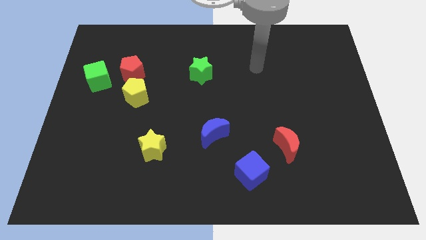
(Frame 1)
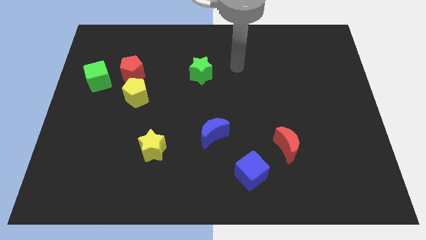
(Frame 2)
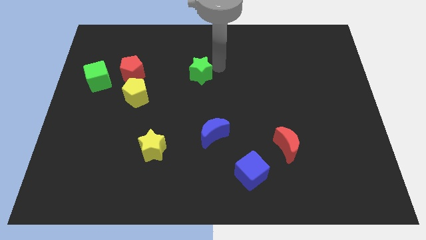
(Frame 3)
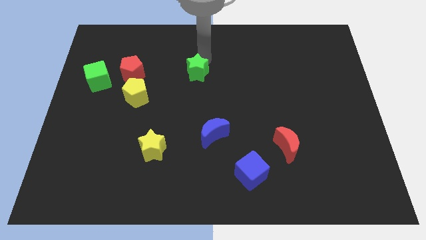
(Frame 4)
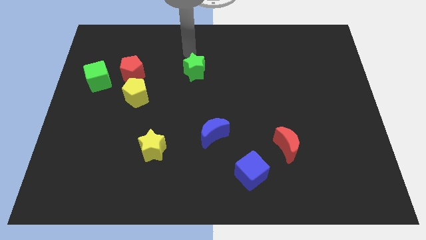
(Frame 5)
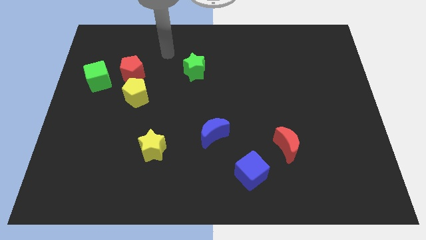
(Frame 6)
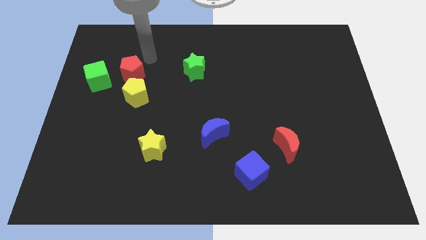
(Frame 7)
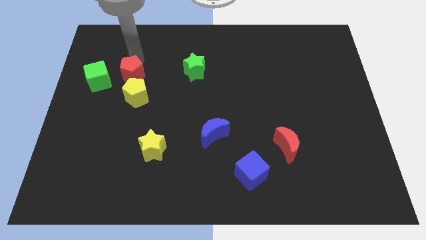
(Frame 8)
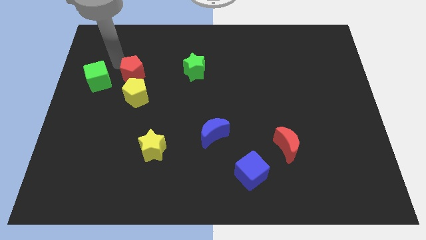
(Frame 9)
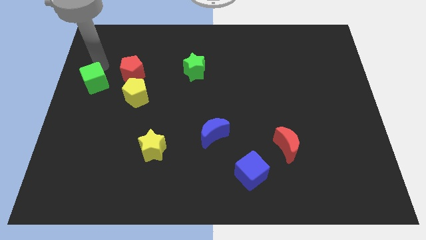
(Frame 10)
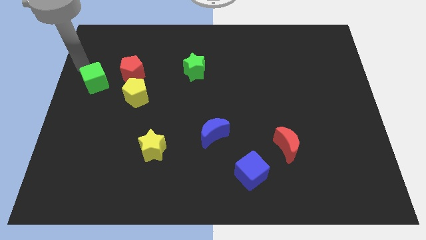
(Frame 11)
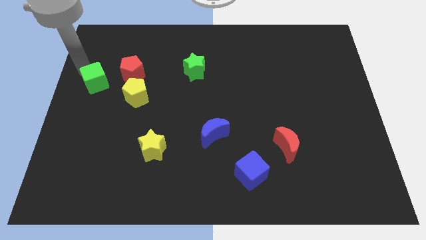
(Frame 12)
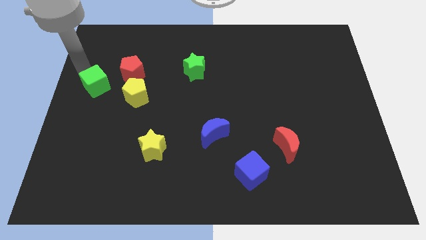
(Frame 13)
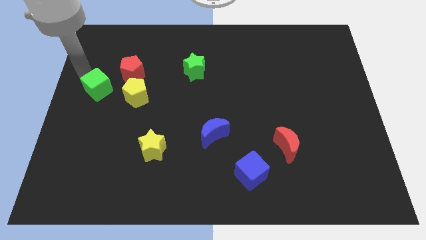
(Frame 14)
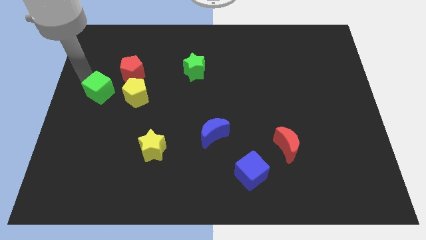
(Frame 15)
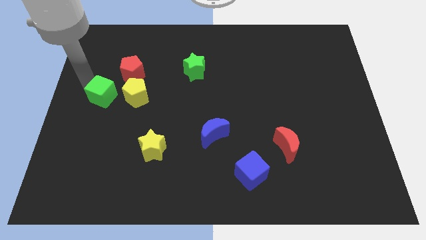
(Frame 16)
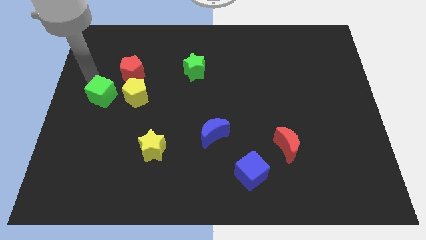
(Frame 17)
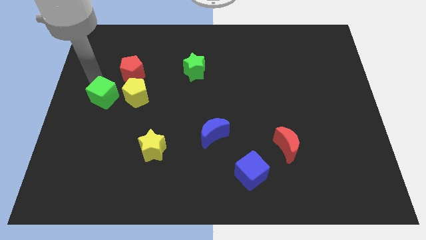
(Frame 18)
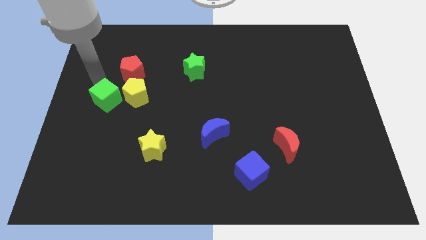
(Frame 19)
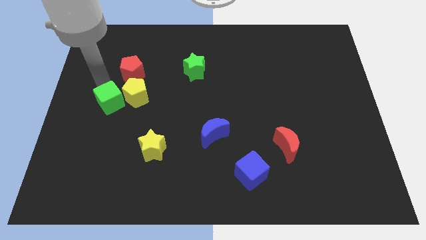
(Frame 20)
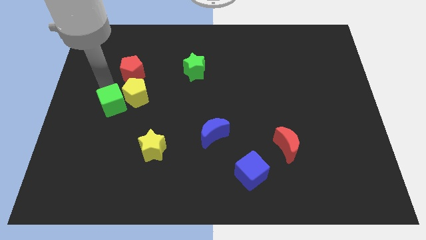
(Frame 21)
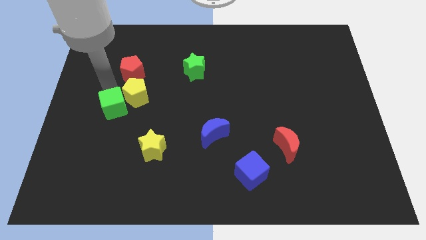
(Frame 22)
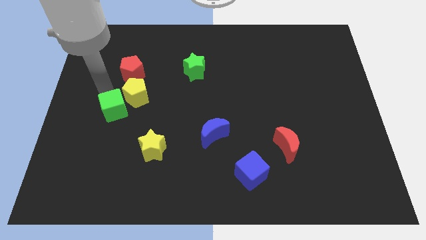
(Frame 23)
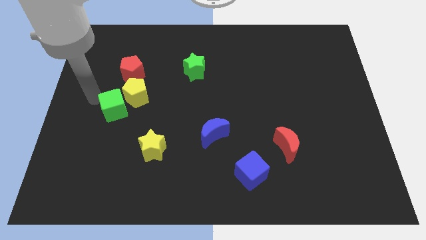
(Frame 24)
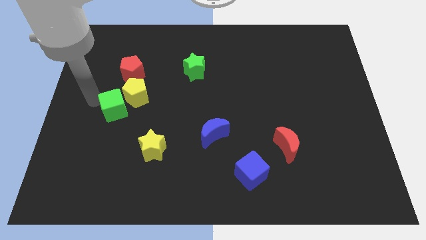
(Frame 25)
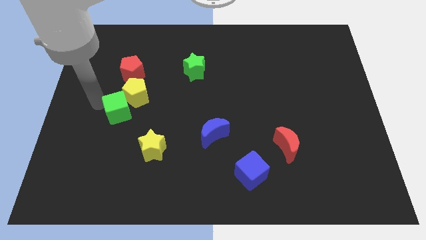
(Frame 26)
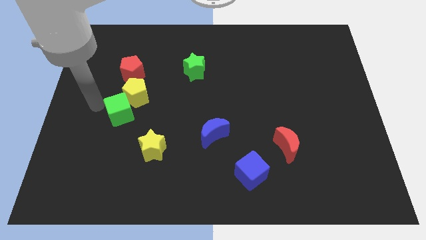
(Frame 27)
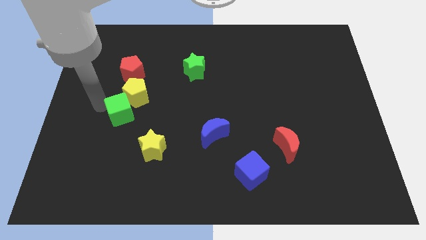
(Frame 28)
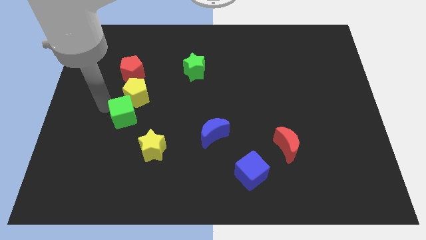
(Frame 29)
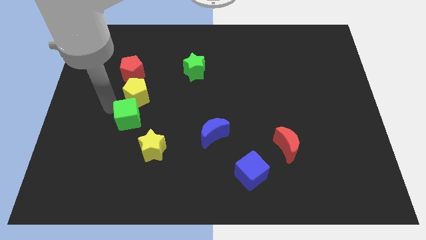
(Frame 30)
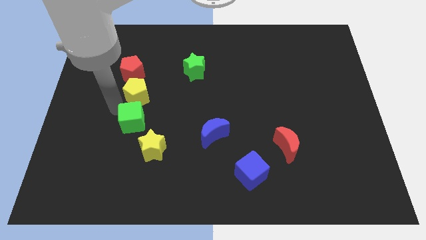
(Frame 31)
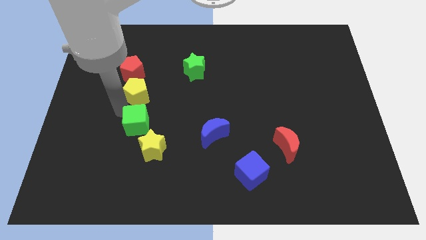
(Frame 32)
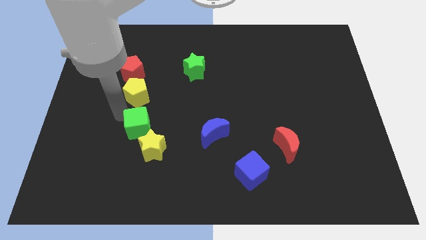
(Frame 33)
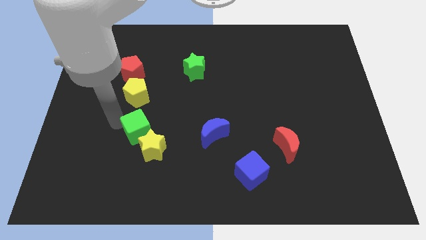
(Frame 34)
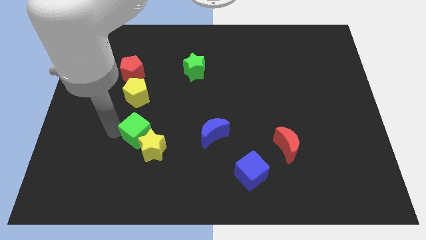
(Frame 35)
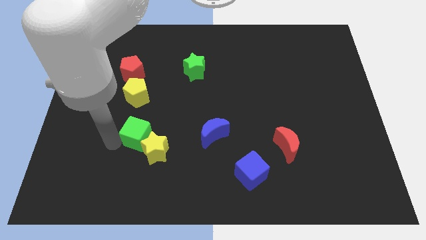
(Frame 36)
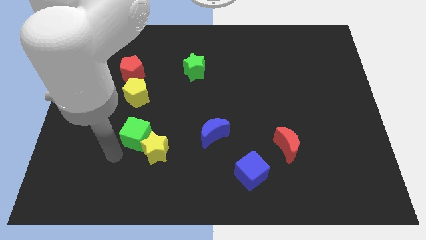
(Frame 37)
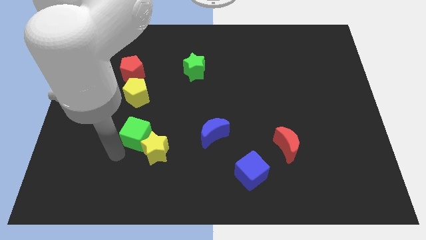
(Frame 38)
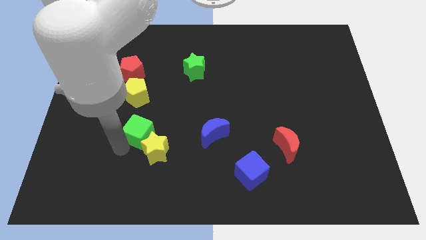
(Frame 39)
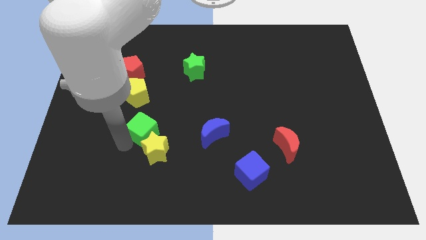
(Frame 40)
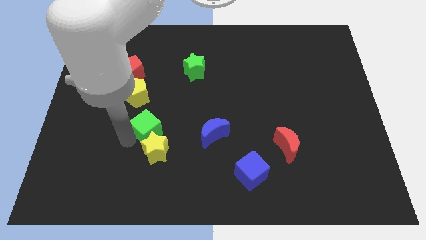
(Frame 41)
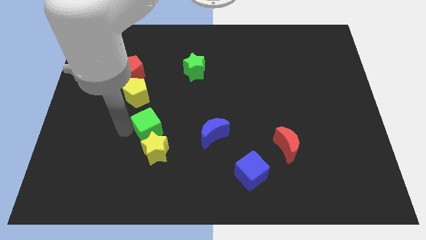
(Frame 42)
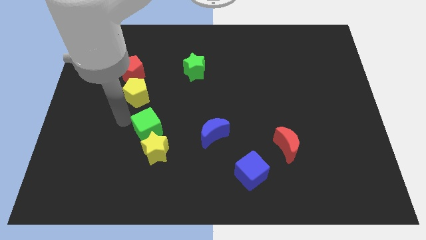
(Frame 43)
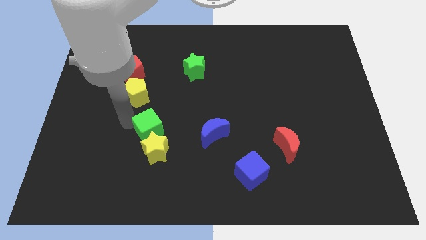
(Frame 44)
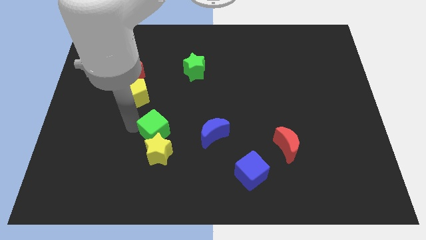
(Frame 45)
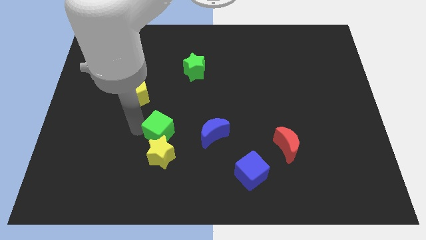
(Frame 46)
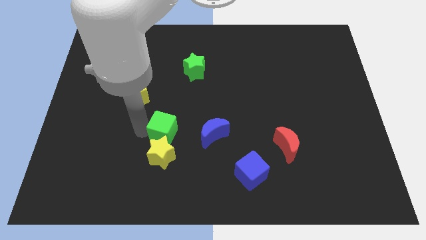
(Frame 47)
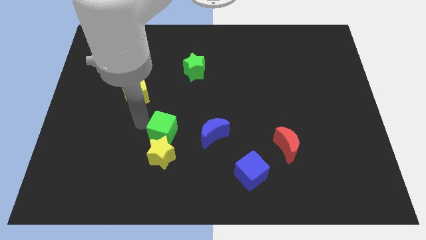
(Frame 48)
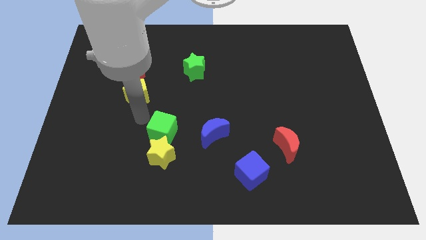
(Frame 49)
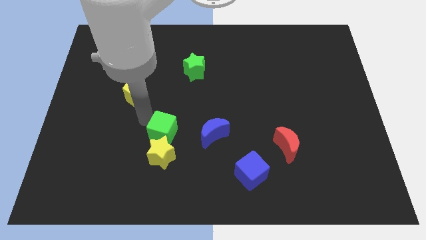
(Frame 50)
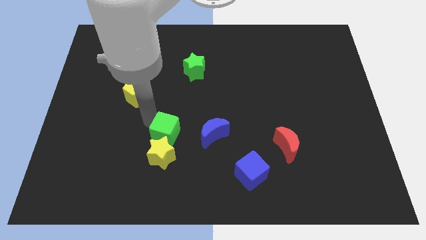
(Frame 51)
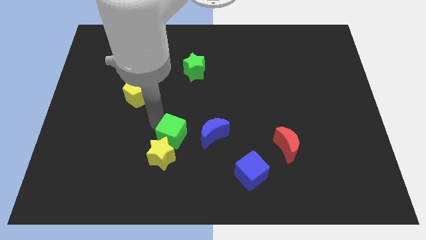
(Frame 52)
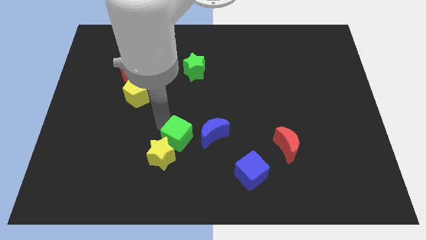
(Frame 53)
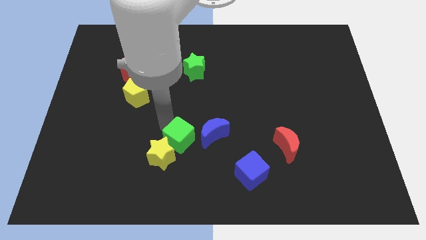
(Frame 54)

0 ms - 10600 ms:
move the green cube diagonally down and to the left of the blue moon

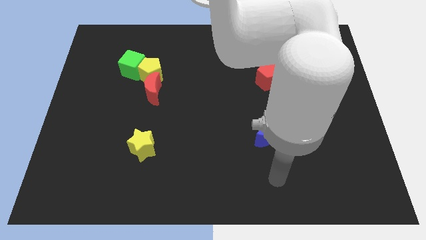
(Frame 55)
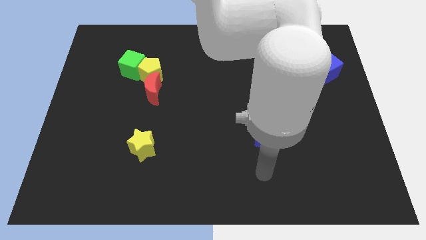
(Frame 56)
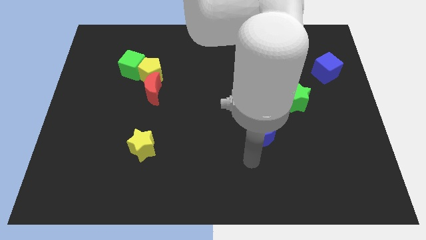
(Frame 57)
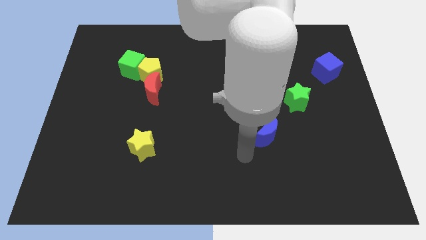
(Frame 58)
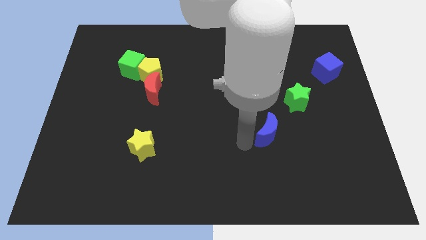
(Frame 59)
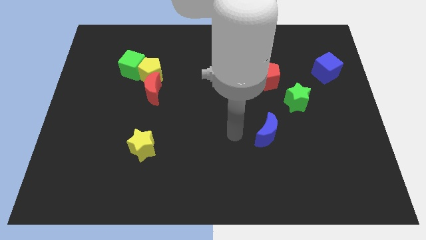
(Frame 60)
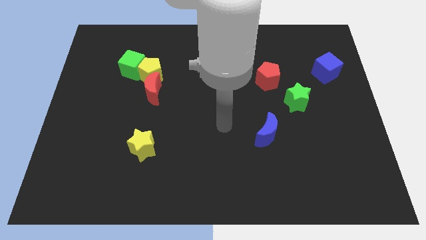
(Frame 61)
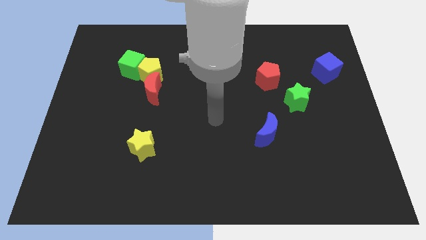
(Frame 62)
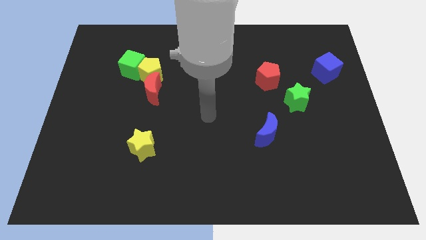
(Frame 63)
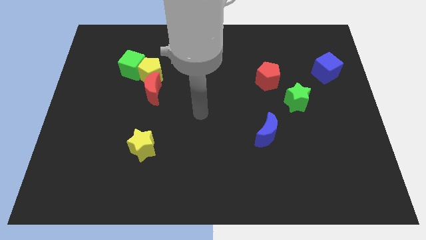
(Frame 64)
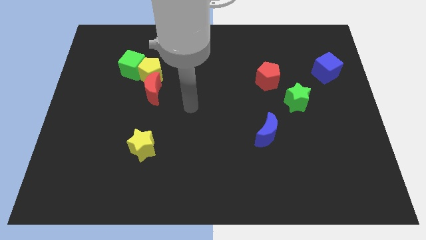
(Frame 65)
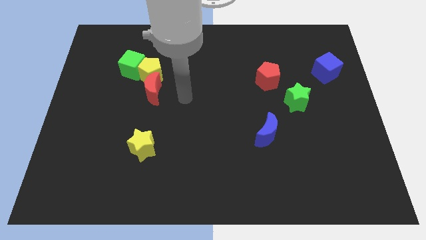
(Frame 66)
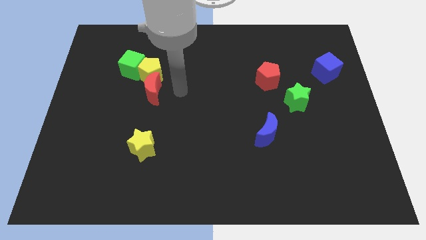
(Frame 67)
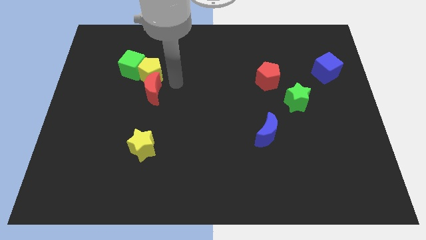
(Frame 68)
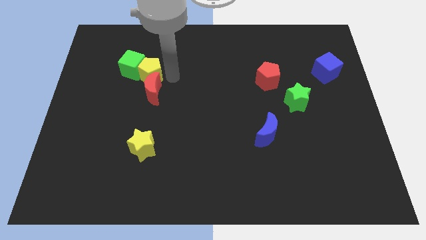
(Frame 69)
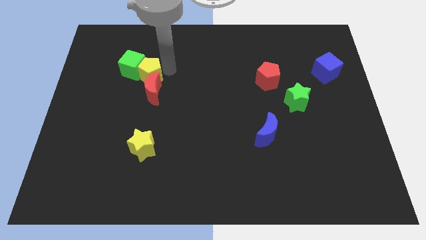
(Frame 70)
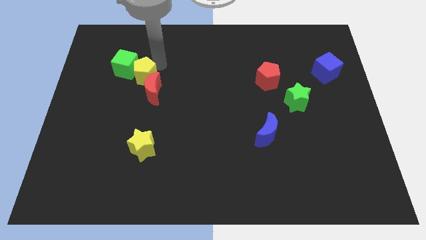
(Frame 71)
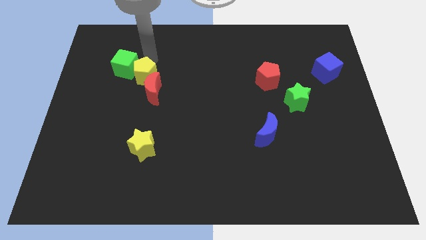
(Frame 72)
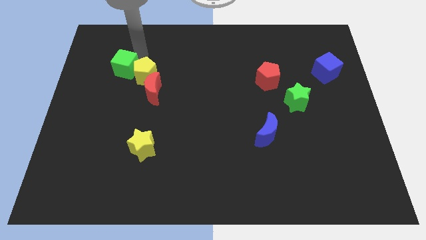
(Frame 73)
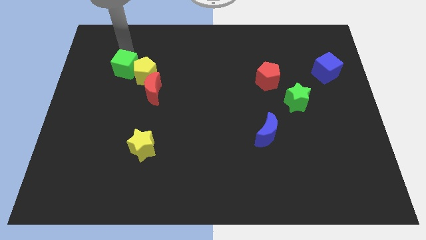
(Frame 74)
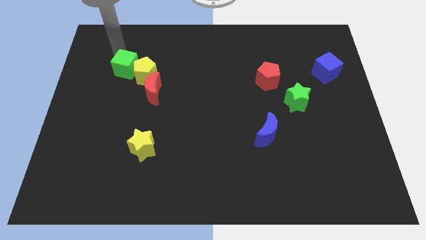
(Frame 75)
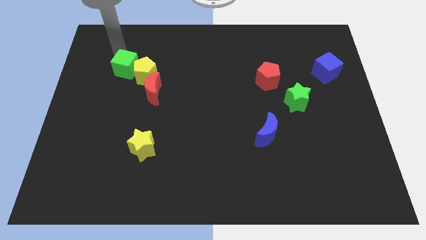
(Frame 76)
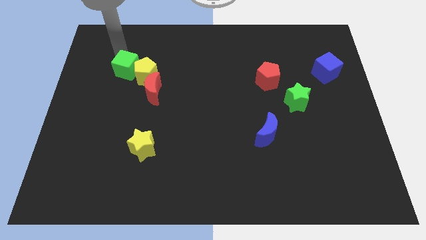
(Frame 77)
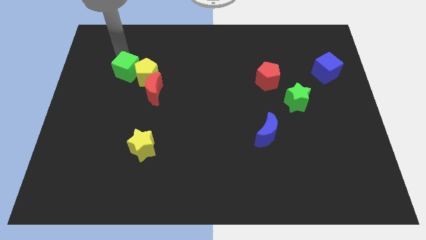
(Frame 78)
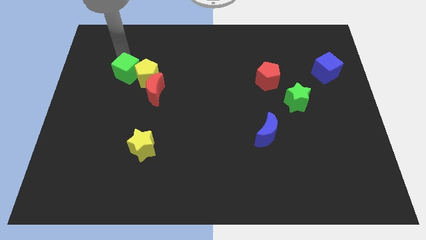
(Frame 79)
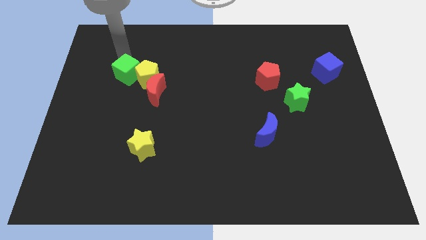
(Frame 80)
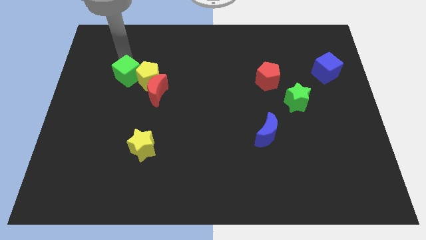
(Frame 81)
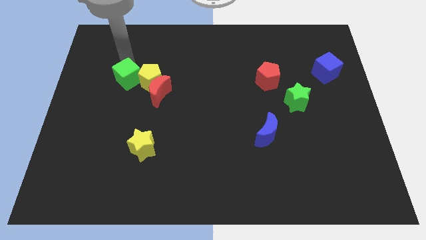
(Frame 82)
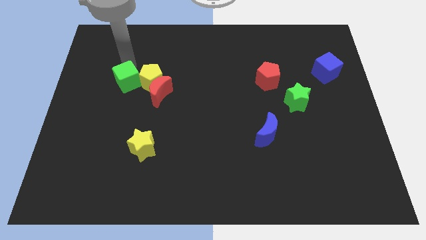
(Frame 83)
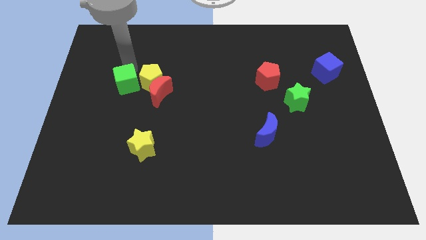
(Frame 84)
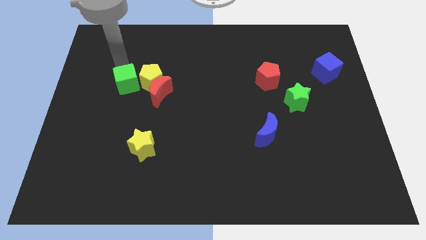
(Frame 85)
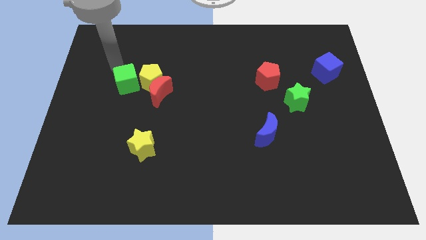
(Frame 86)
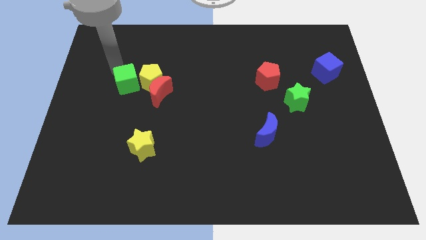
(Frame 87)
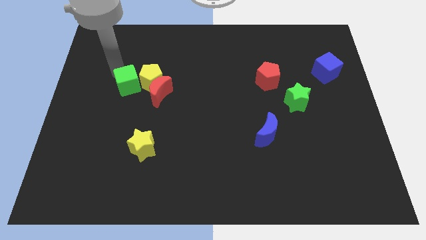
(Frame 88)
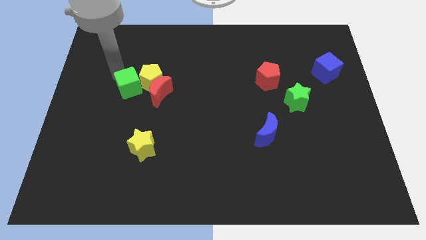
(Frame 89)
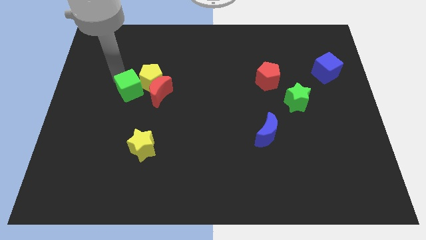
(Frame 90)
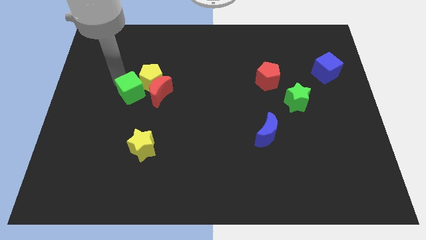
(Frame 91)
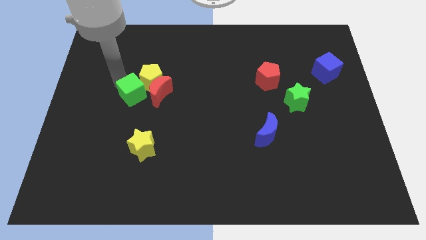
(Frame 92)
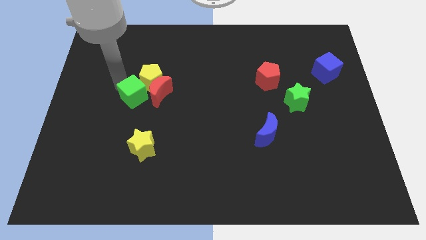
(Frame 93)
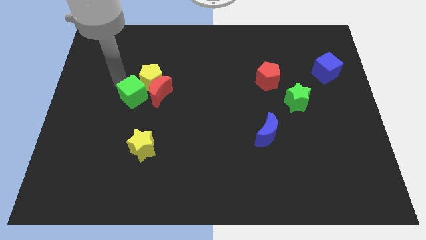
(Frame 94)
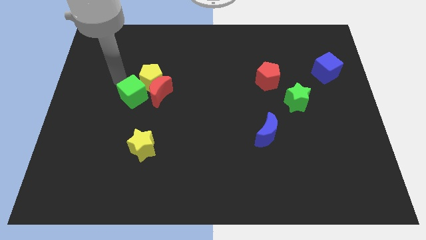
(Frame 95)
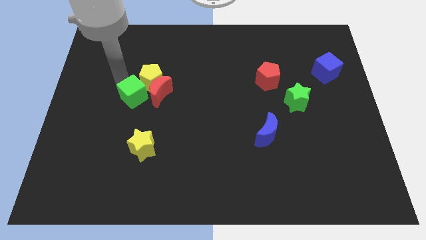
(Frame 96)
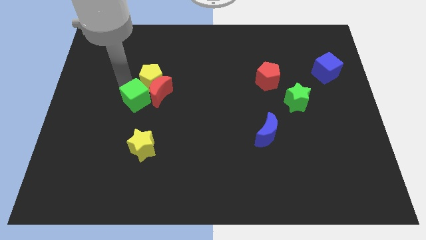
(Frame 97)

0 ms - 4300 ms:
put the green cube to the top side of the yellow star
